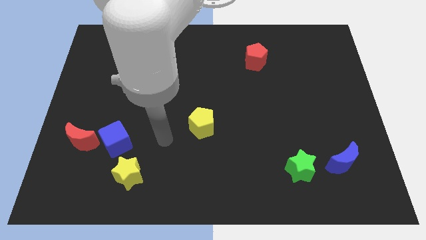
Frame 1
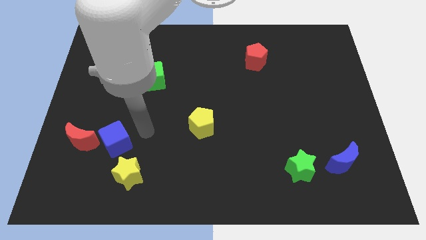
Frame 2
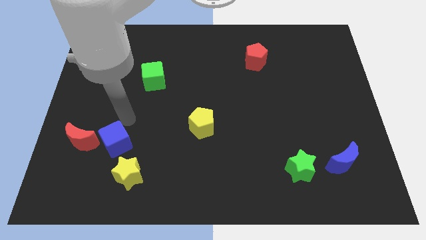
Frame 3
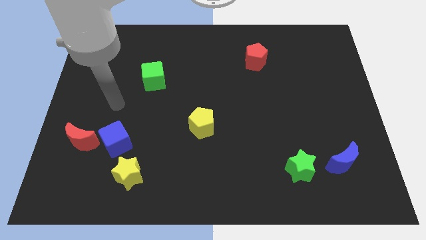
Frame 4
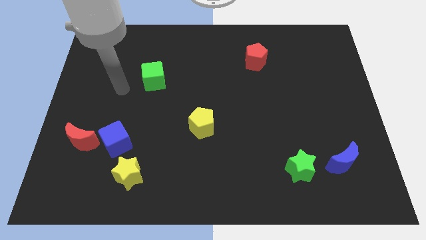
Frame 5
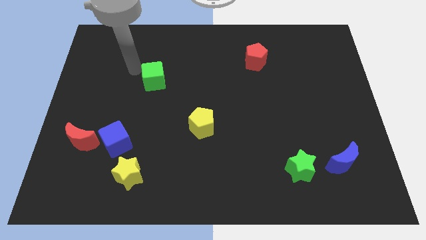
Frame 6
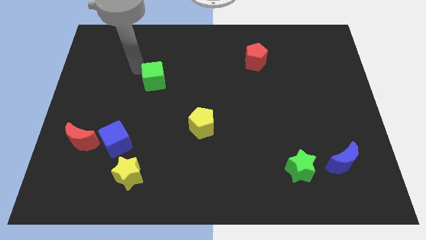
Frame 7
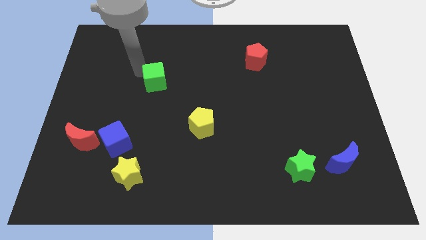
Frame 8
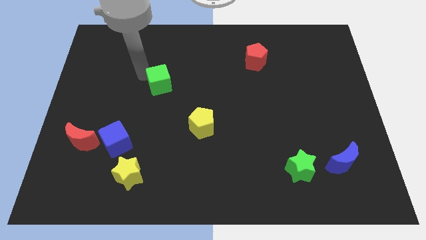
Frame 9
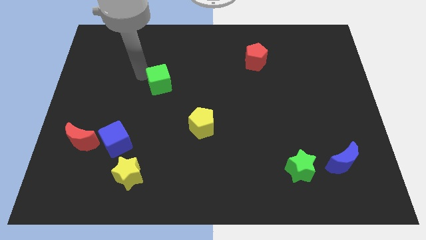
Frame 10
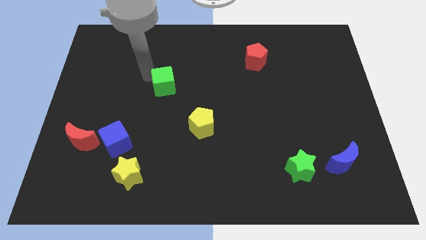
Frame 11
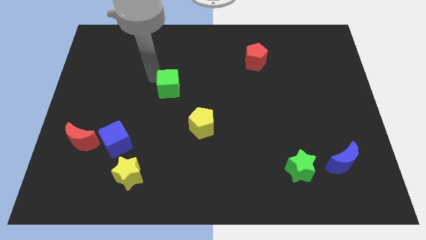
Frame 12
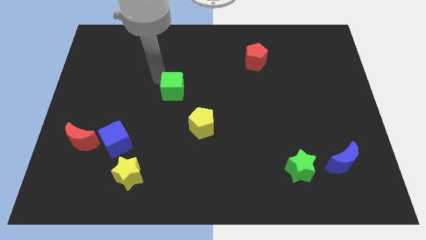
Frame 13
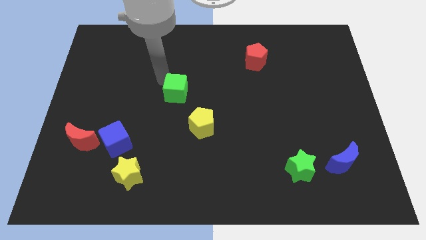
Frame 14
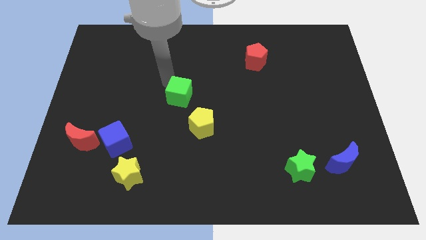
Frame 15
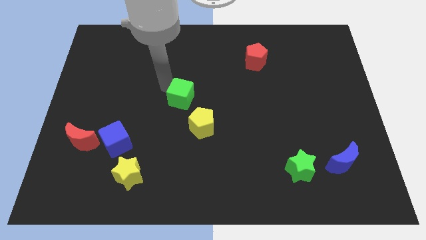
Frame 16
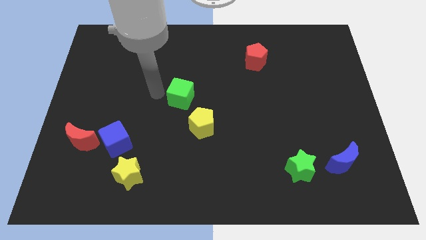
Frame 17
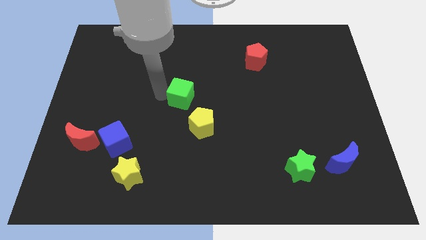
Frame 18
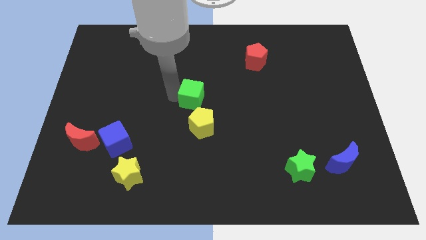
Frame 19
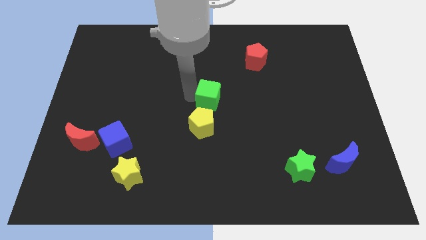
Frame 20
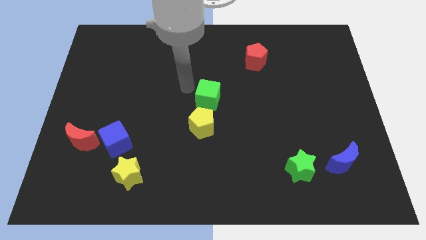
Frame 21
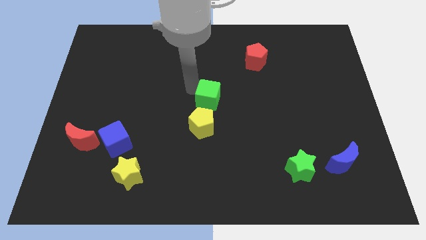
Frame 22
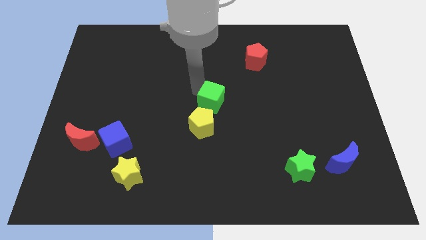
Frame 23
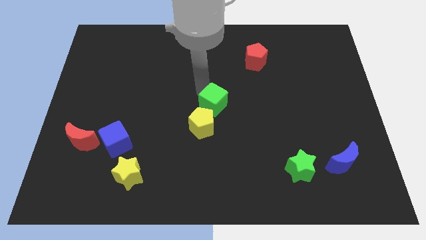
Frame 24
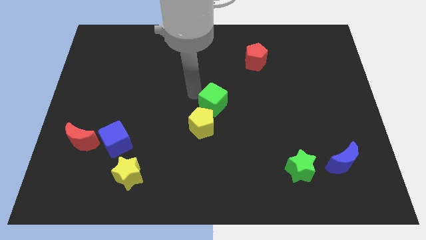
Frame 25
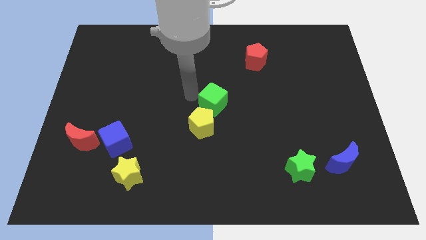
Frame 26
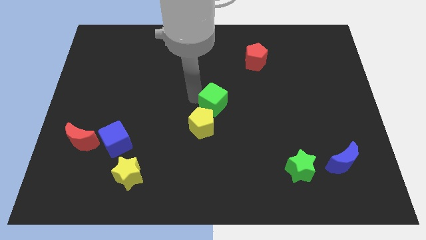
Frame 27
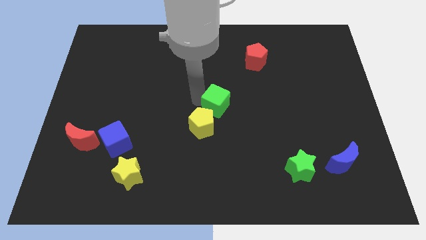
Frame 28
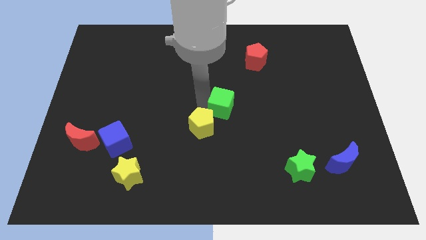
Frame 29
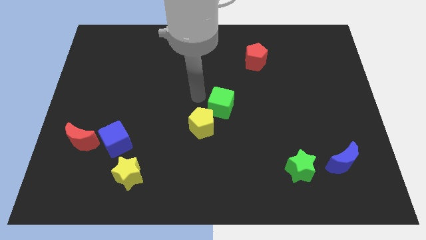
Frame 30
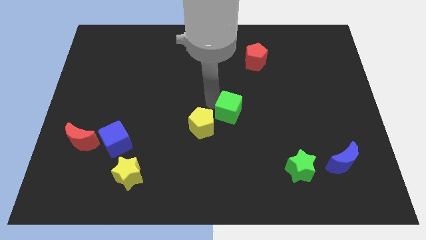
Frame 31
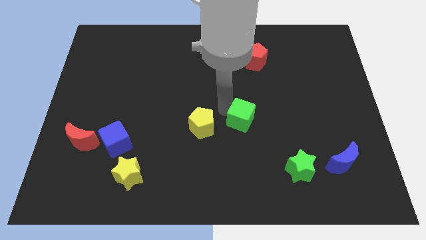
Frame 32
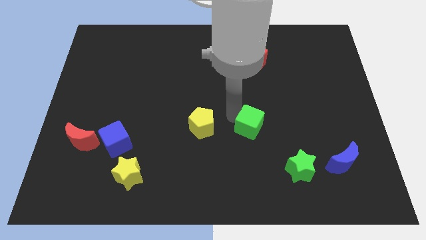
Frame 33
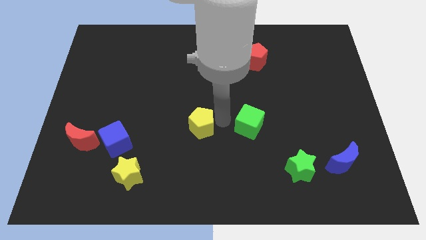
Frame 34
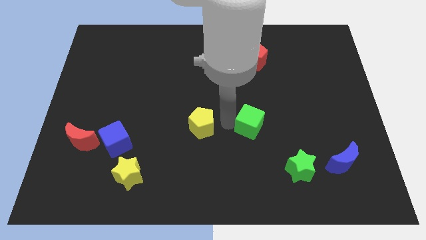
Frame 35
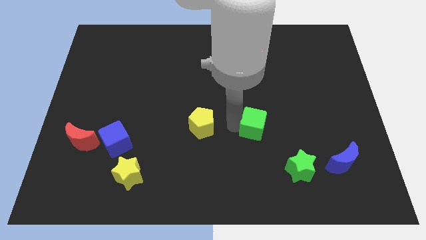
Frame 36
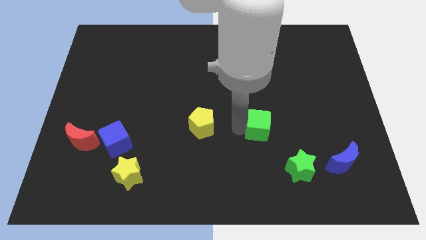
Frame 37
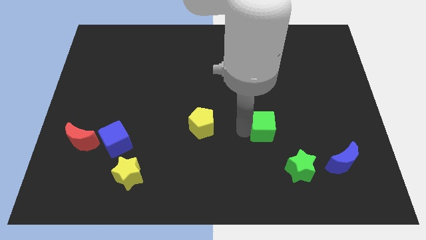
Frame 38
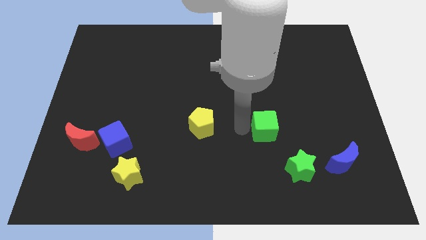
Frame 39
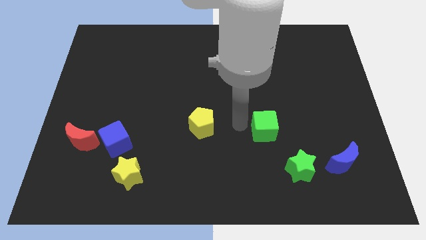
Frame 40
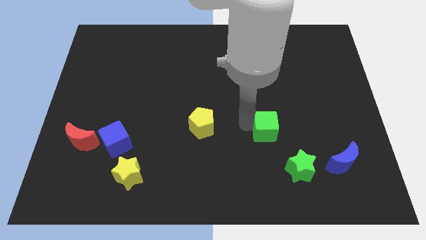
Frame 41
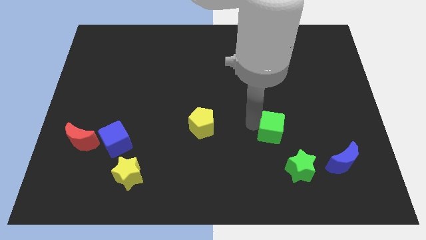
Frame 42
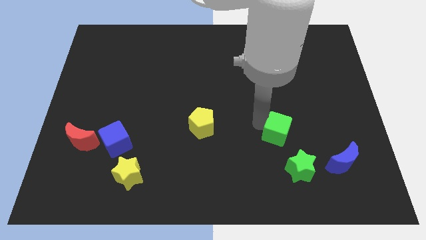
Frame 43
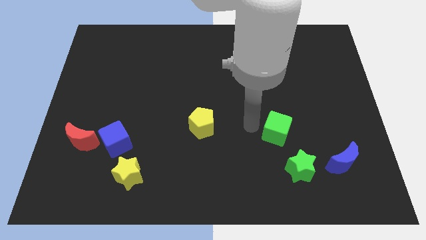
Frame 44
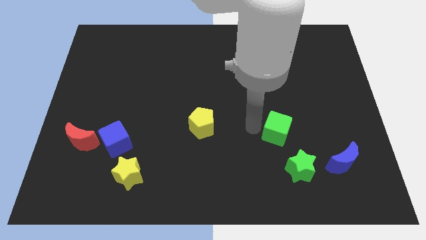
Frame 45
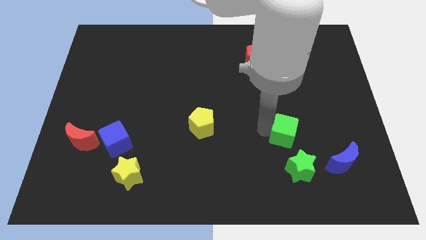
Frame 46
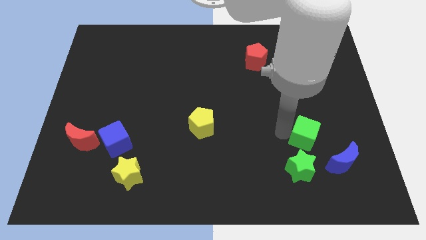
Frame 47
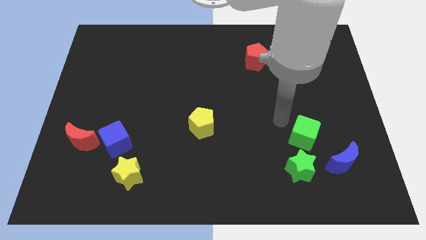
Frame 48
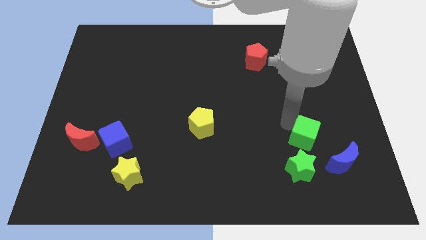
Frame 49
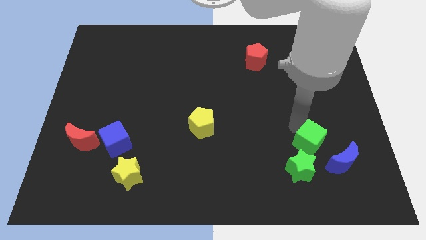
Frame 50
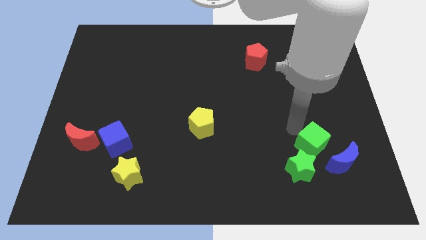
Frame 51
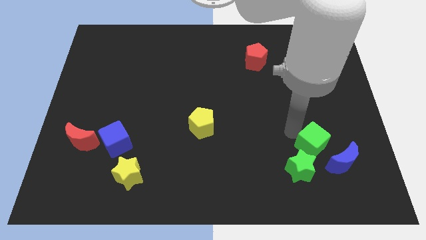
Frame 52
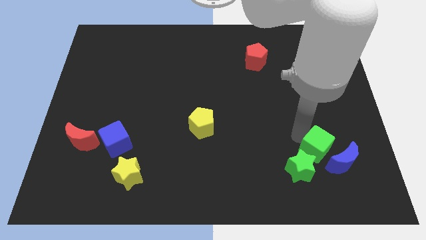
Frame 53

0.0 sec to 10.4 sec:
push the green cube to the blue moon

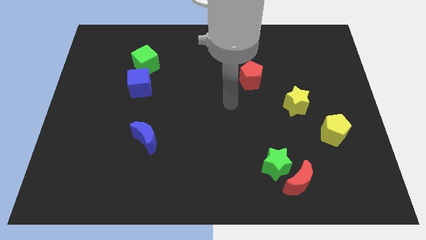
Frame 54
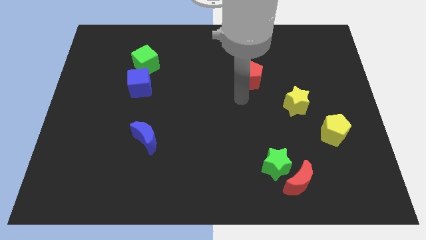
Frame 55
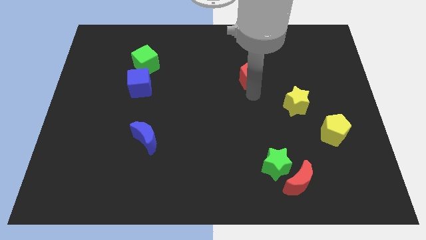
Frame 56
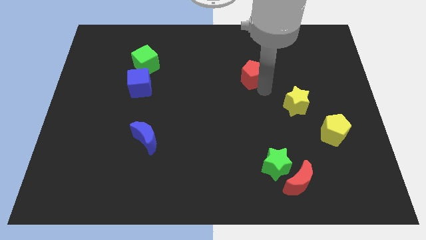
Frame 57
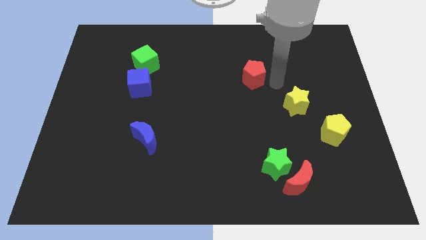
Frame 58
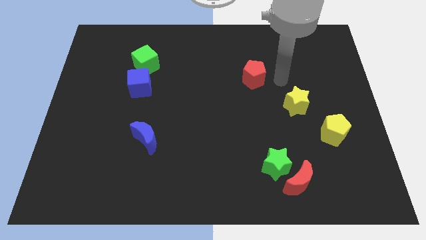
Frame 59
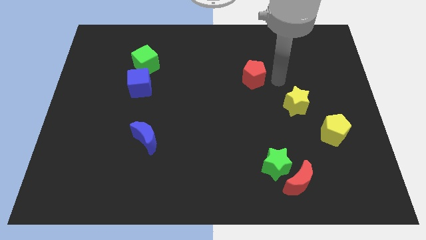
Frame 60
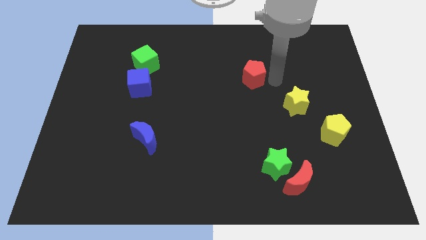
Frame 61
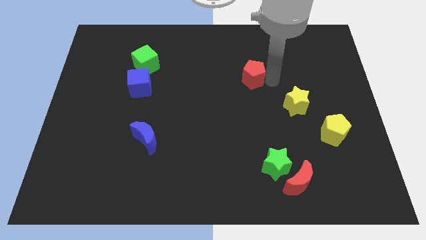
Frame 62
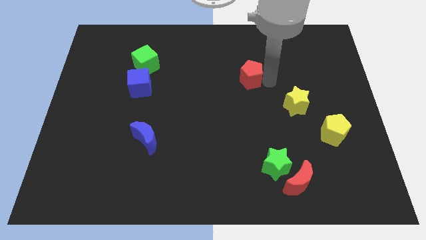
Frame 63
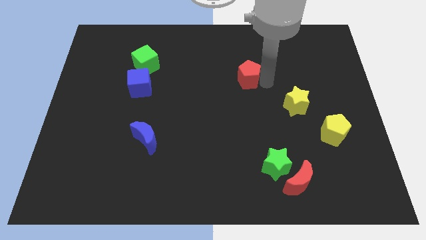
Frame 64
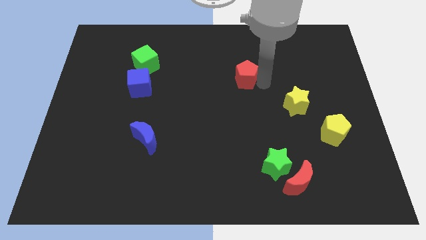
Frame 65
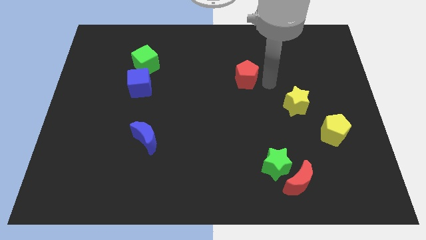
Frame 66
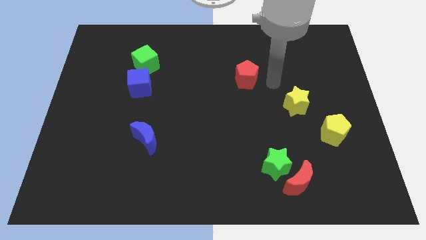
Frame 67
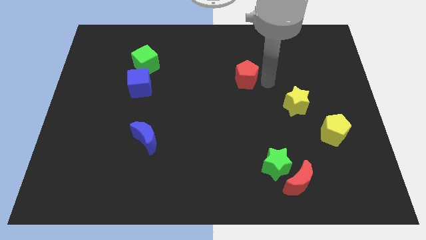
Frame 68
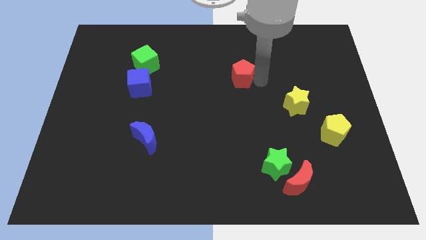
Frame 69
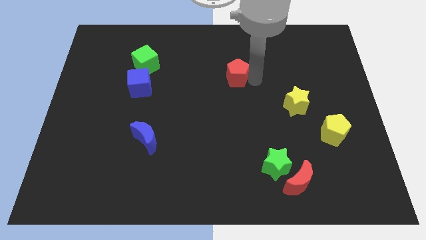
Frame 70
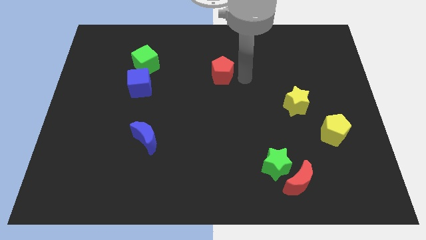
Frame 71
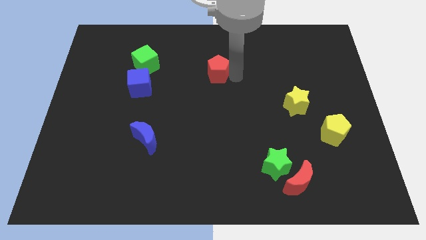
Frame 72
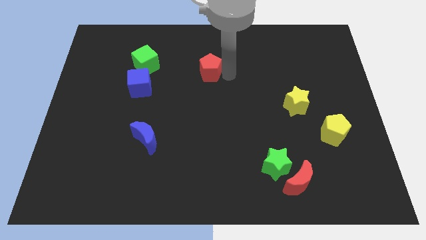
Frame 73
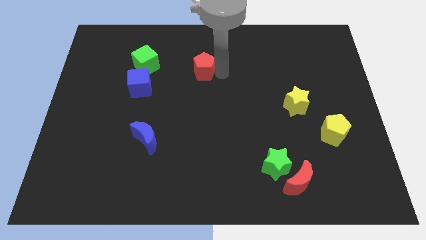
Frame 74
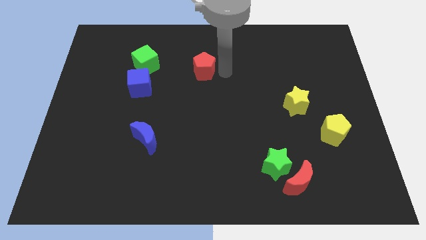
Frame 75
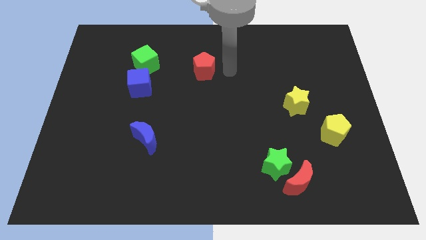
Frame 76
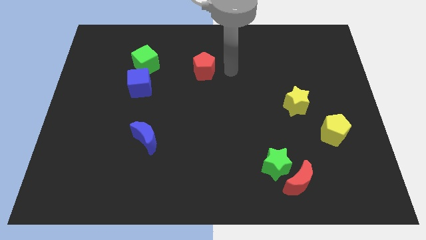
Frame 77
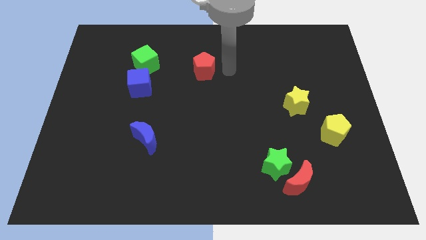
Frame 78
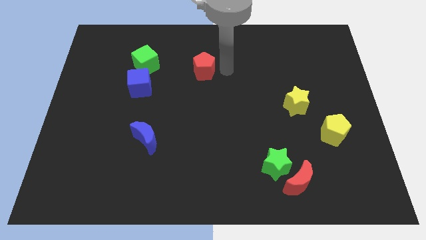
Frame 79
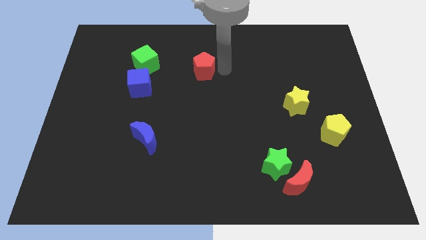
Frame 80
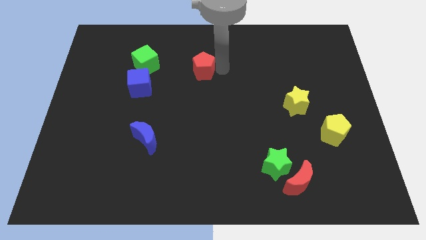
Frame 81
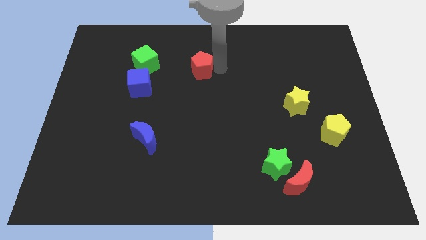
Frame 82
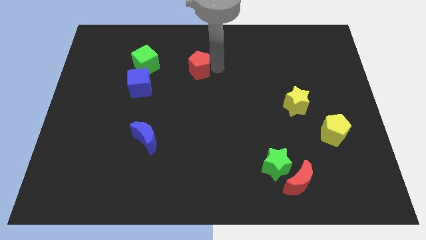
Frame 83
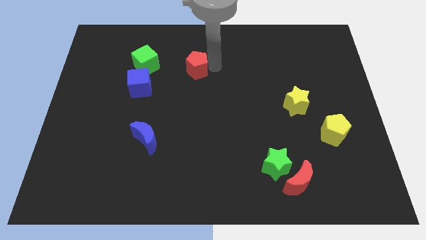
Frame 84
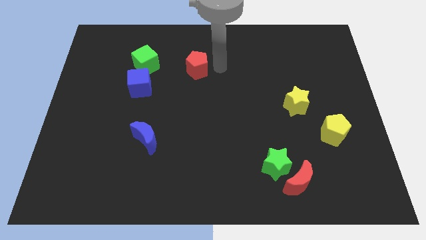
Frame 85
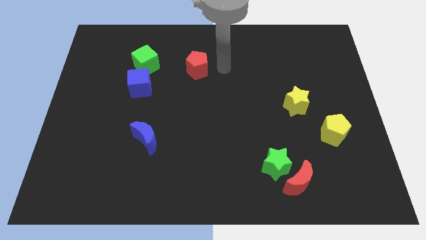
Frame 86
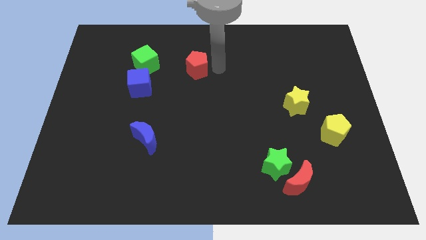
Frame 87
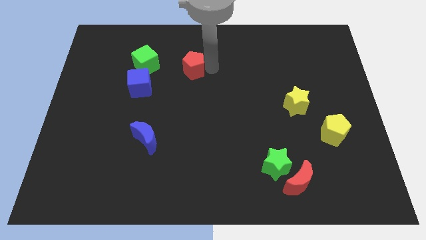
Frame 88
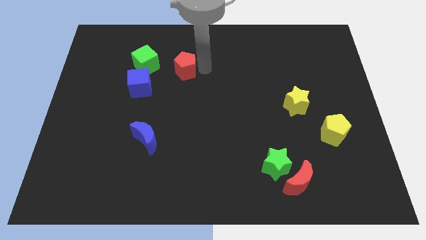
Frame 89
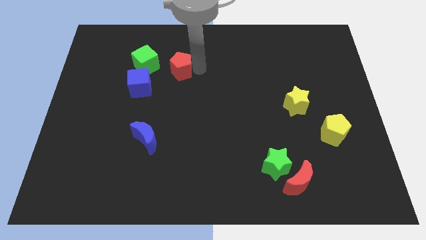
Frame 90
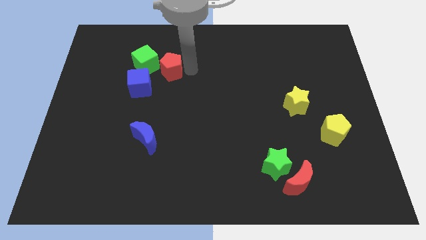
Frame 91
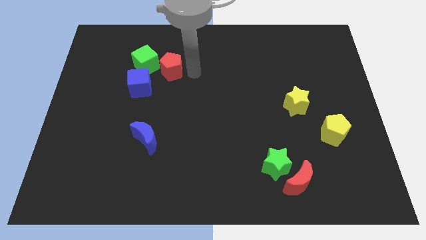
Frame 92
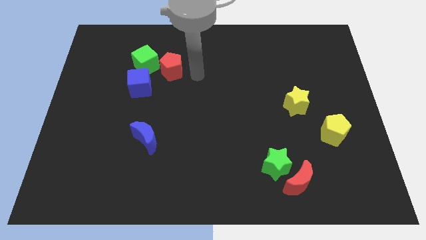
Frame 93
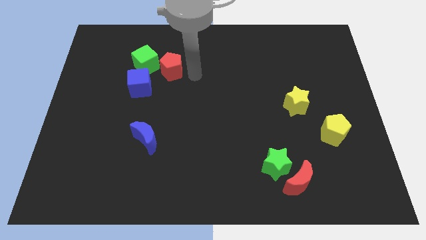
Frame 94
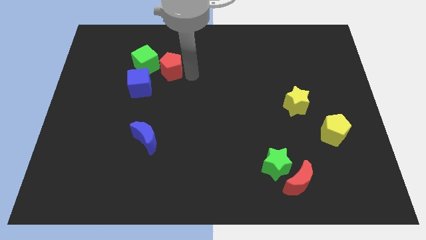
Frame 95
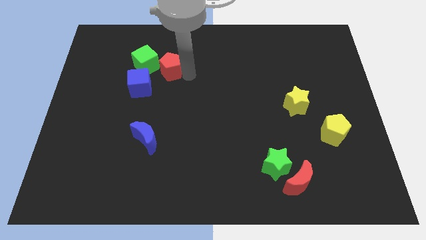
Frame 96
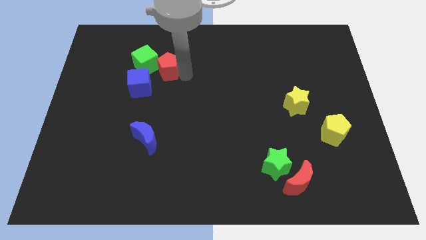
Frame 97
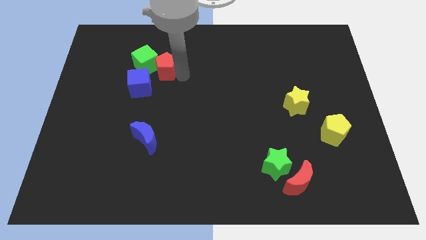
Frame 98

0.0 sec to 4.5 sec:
move the red pentagon next to the green cube
